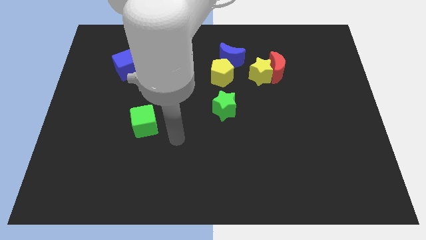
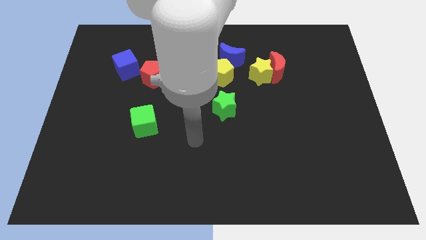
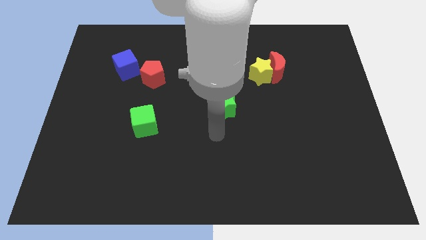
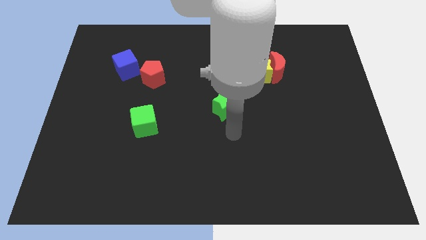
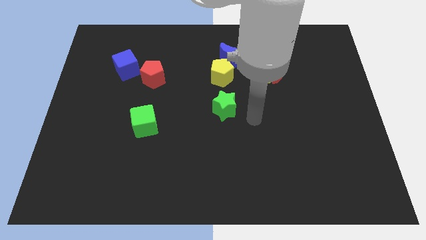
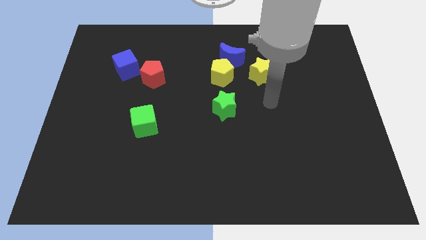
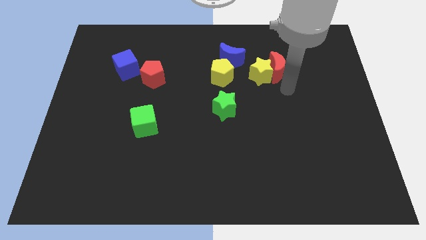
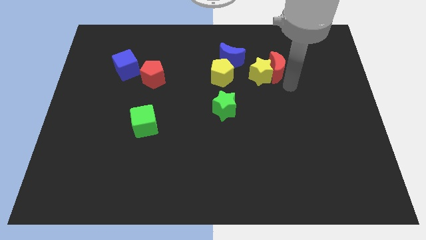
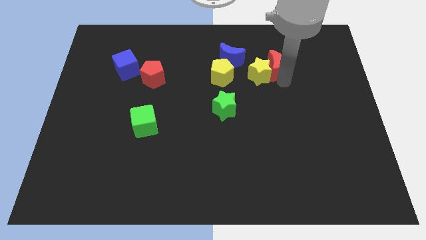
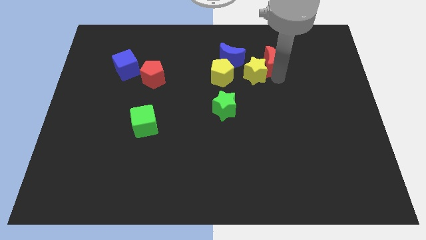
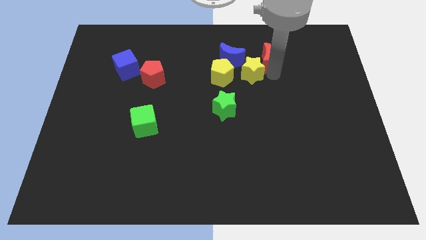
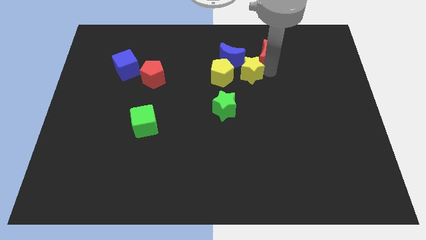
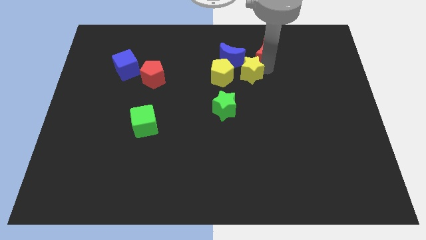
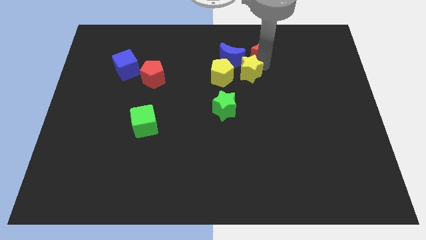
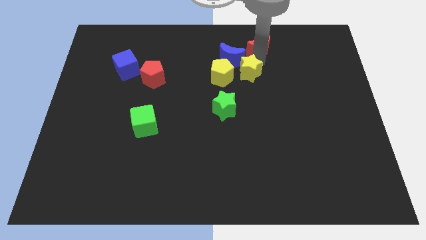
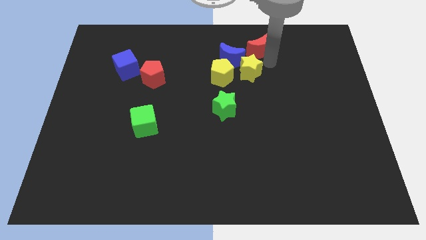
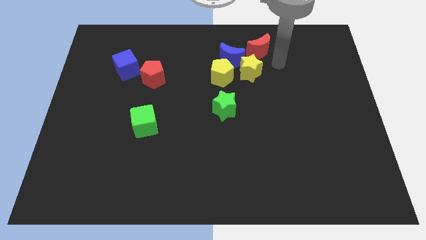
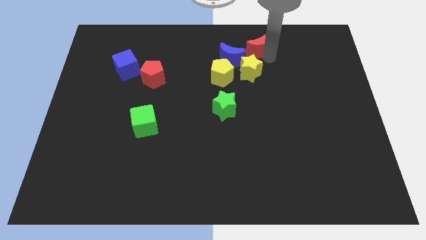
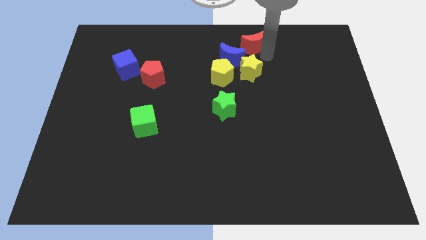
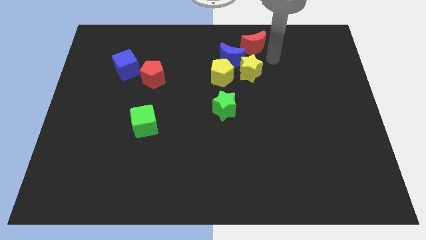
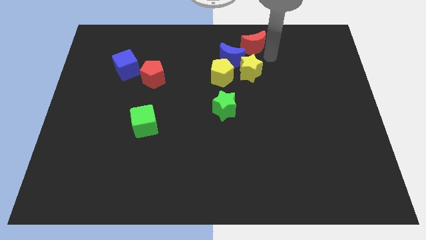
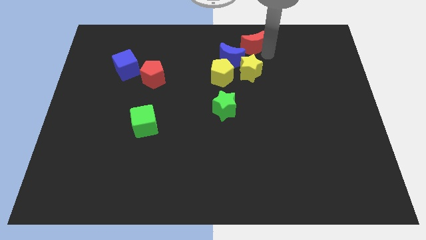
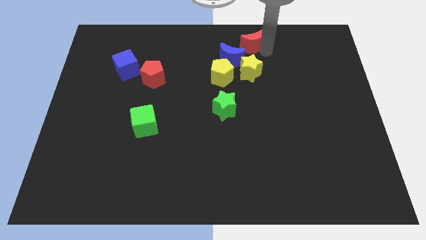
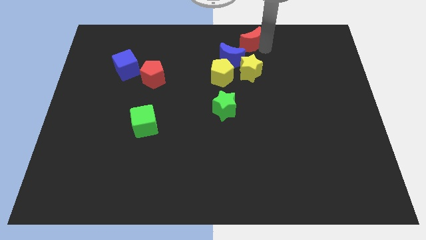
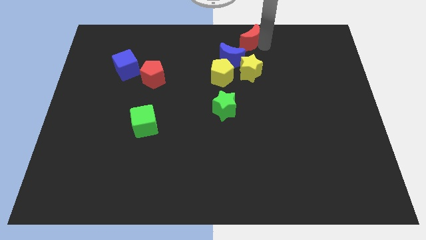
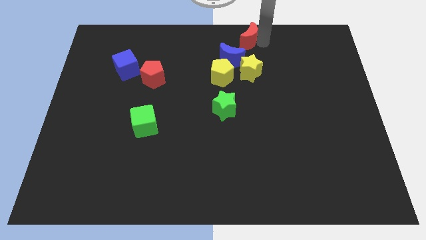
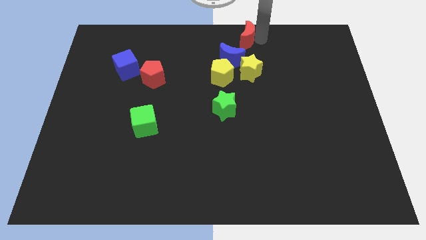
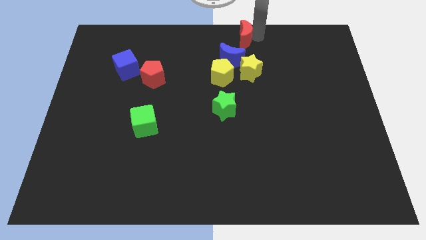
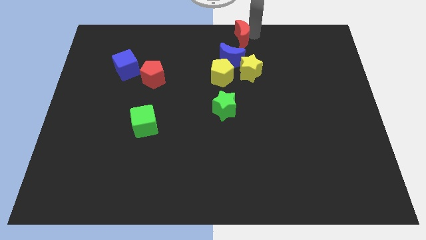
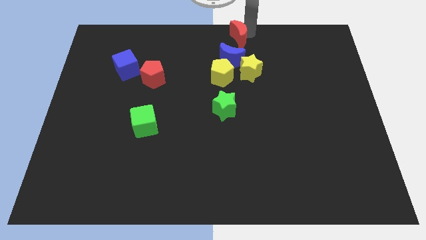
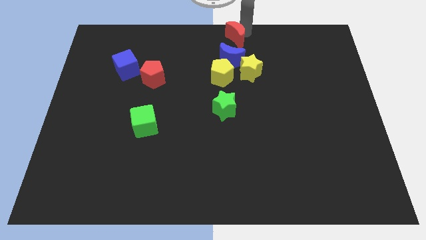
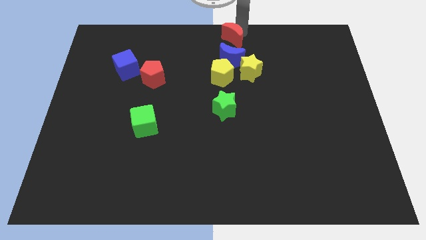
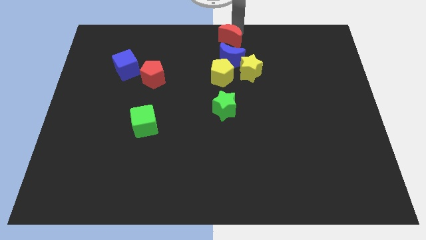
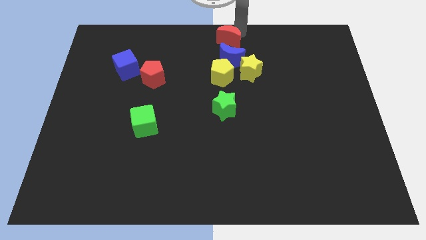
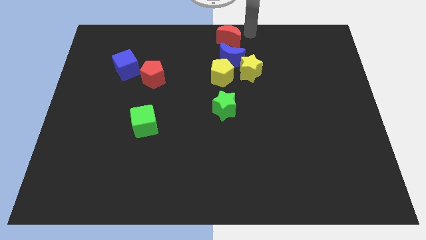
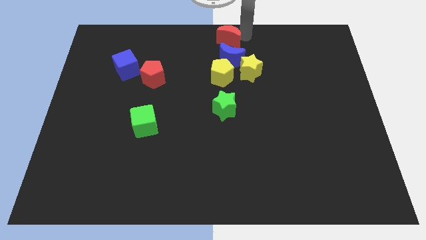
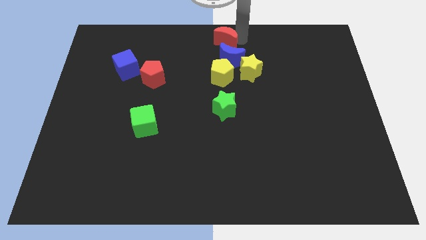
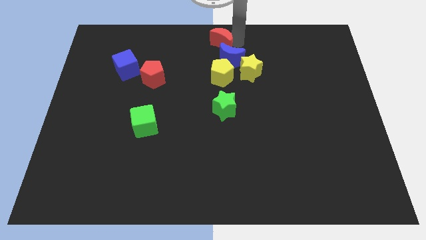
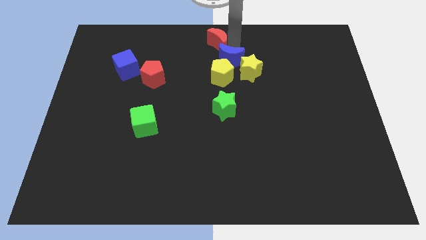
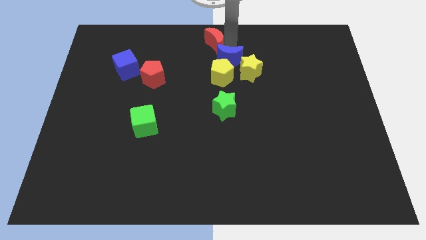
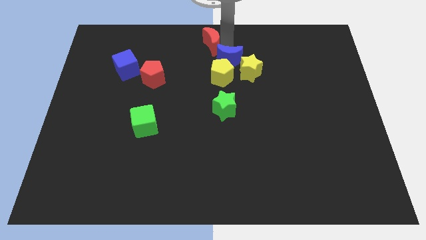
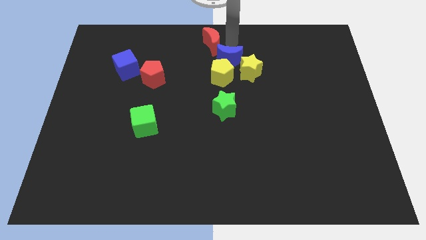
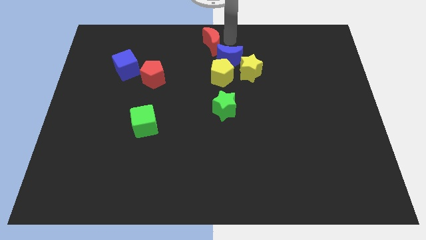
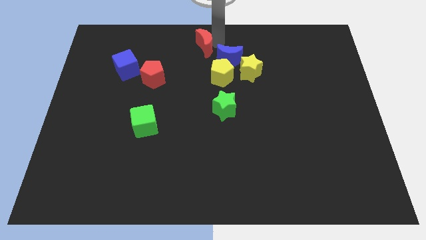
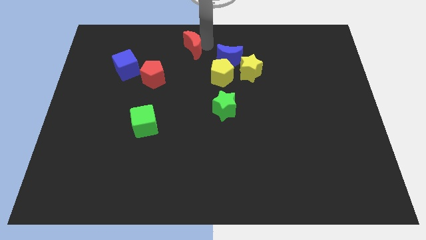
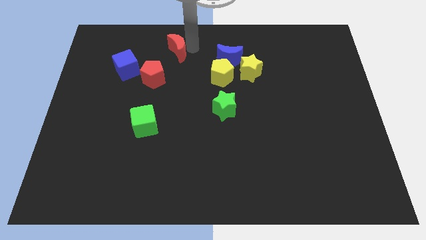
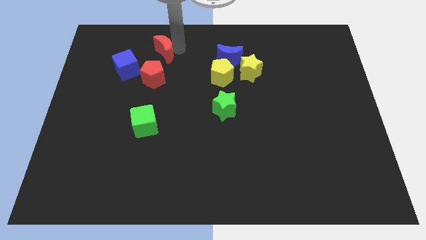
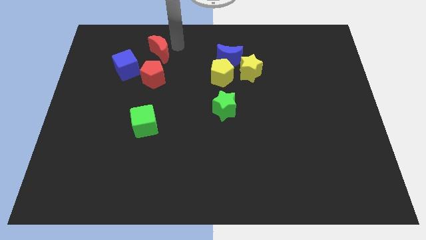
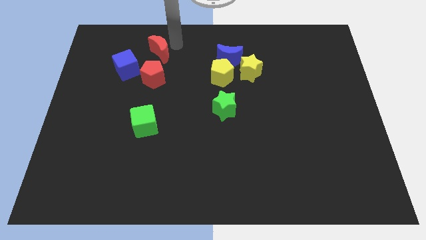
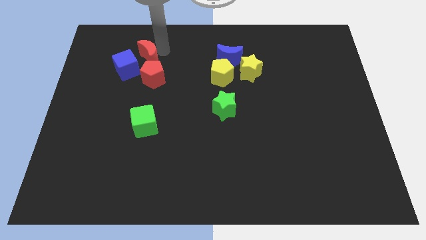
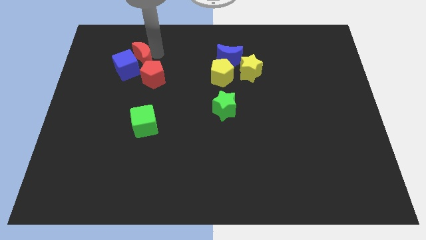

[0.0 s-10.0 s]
move the red moon next to the blue cube

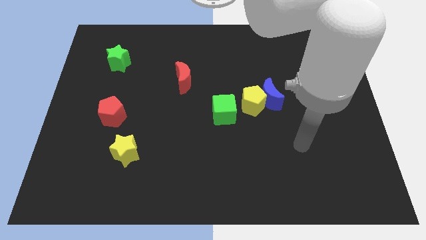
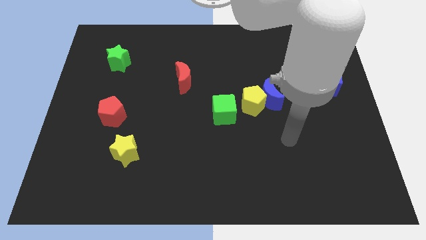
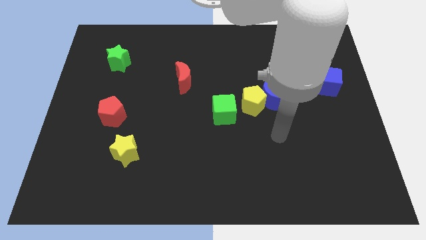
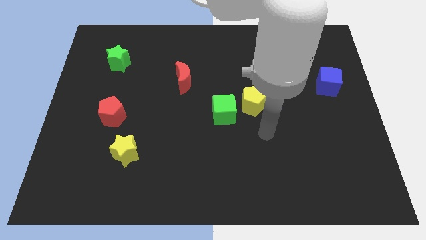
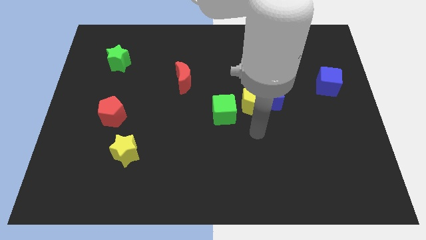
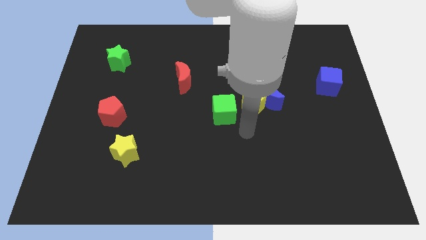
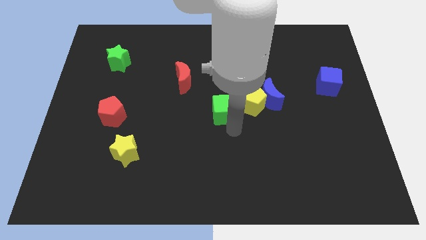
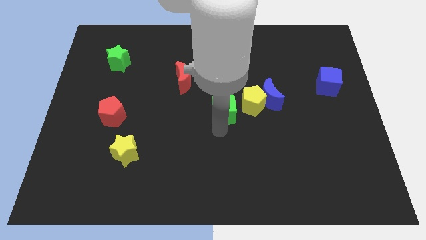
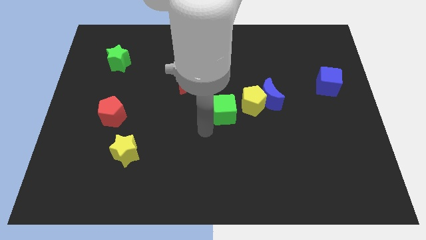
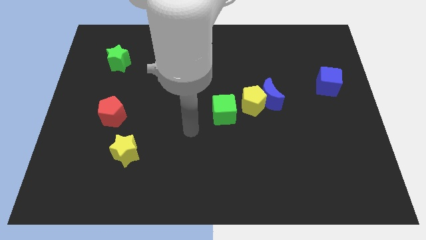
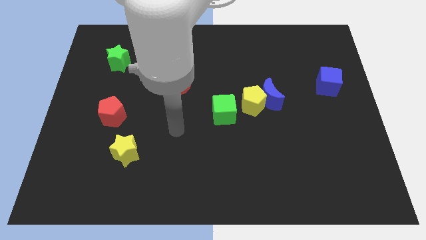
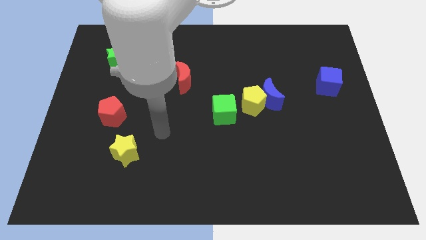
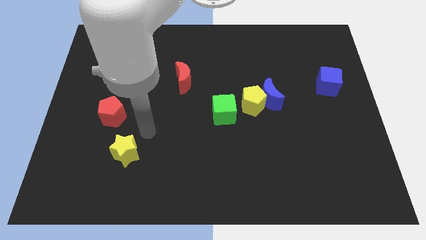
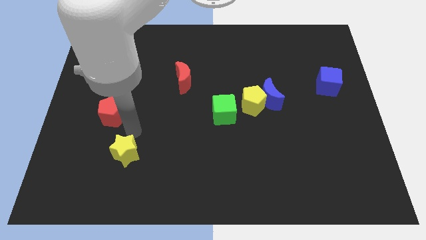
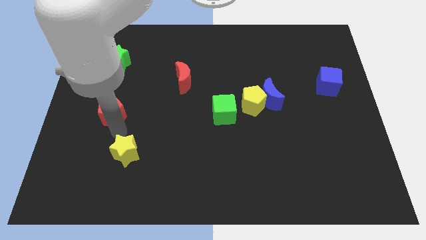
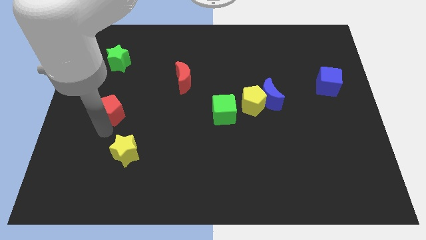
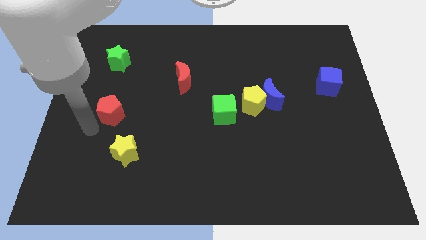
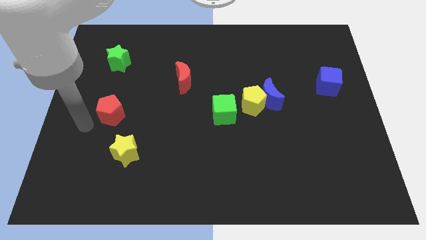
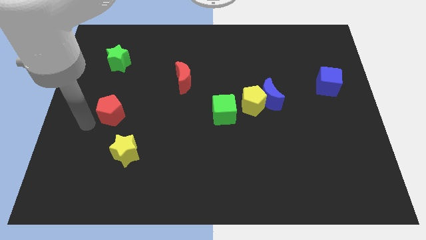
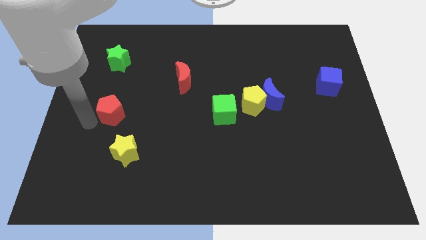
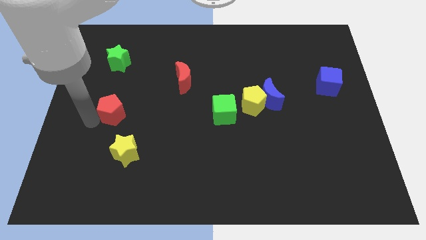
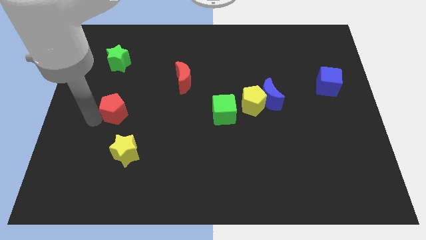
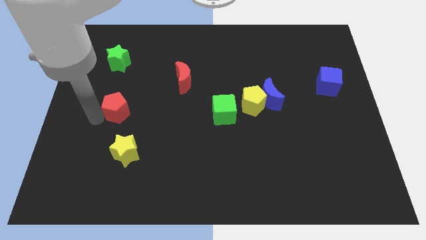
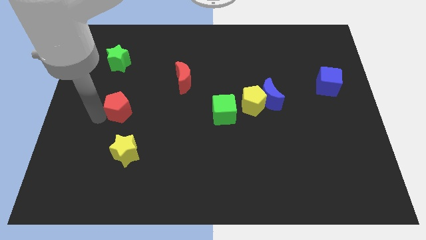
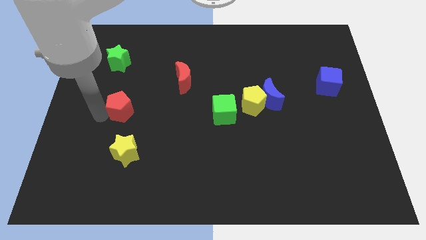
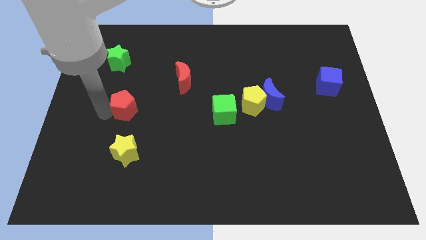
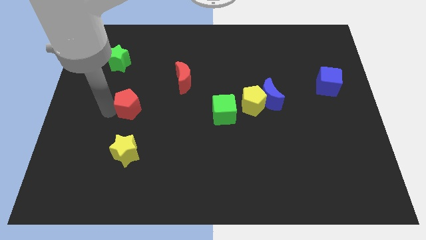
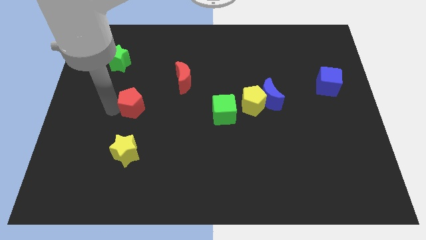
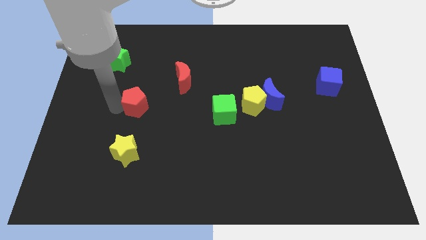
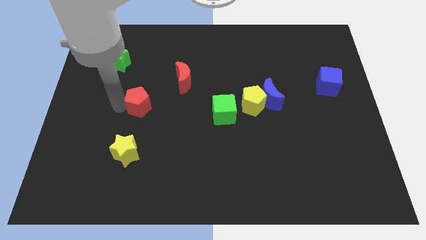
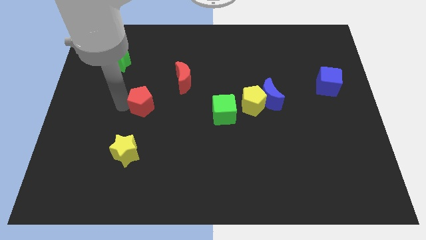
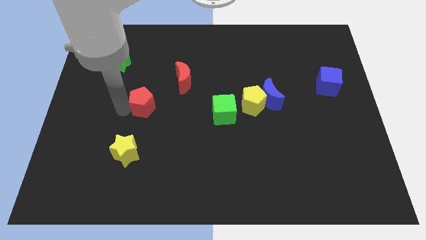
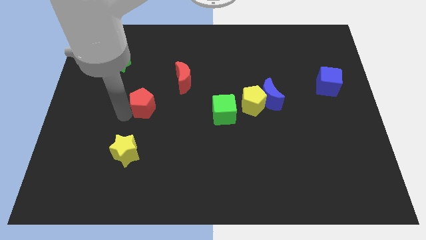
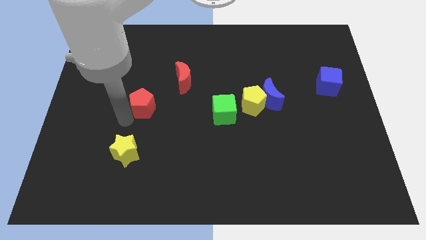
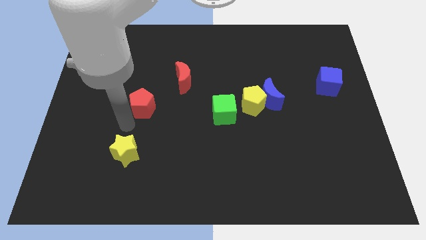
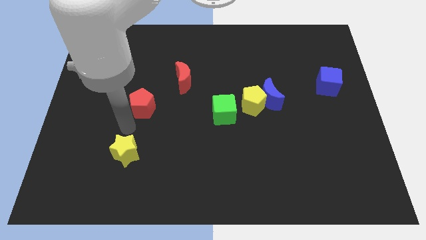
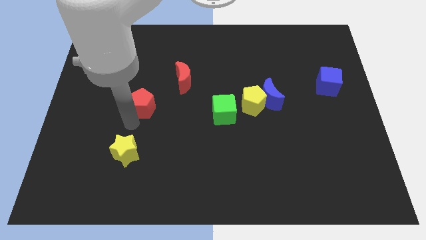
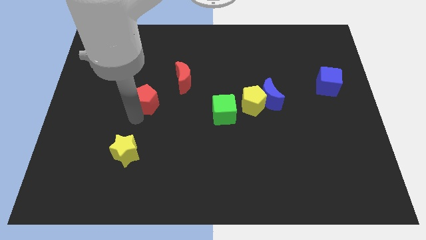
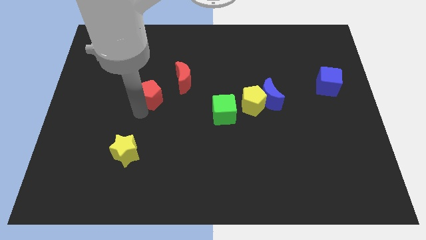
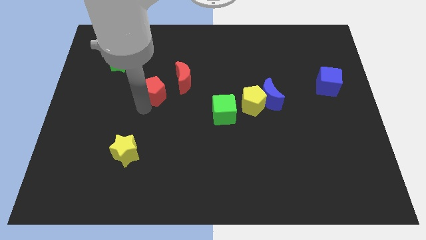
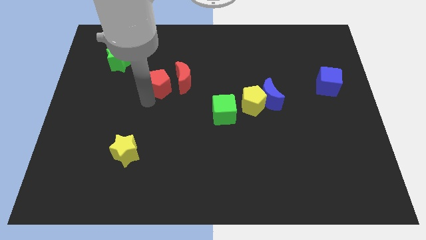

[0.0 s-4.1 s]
put the red pentagon towards the red moon
